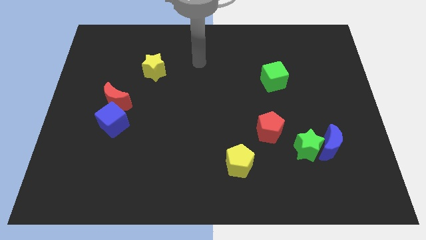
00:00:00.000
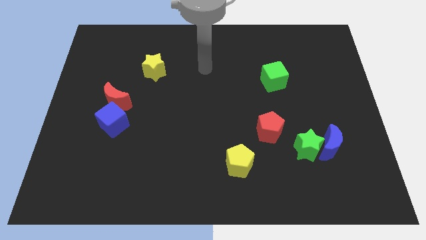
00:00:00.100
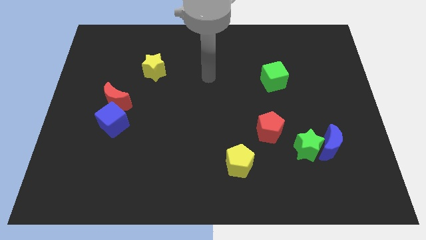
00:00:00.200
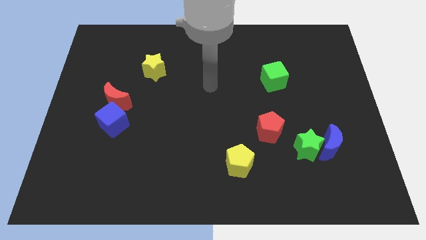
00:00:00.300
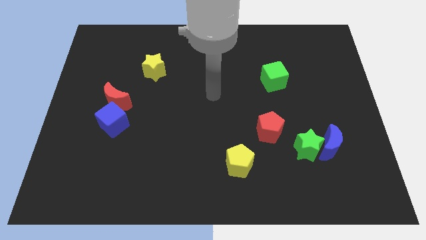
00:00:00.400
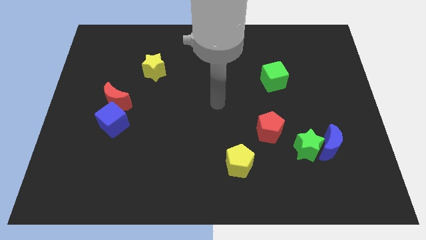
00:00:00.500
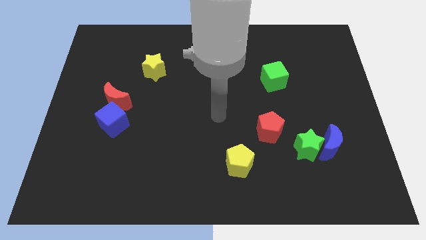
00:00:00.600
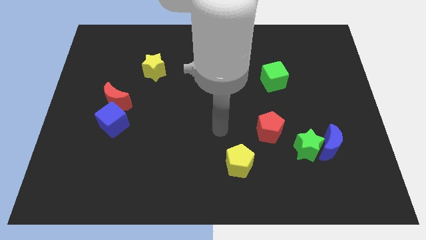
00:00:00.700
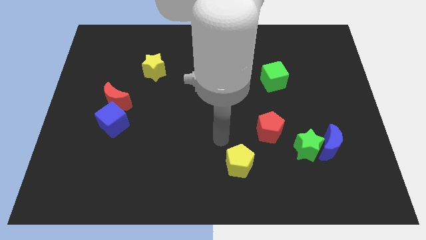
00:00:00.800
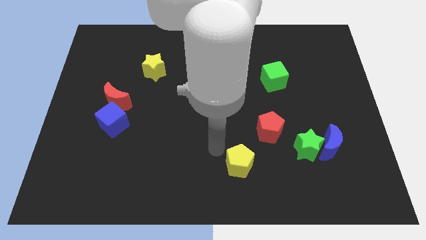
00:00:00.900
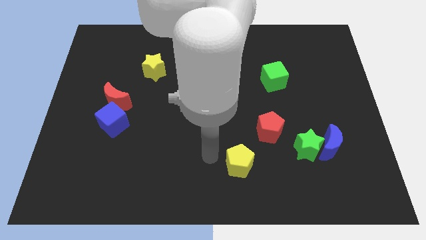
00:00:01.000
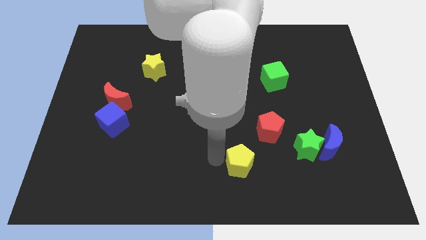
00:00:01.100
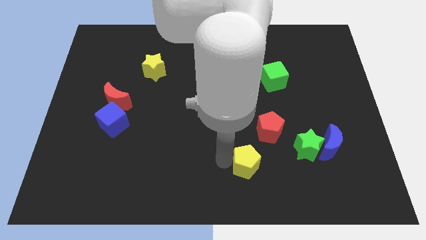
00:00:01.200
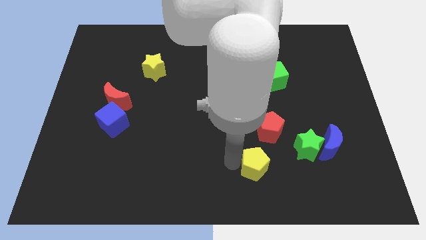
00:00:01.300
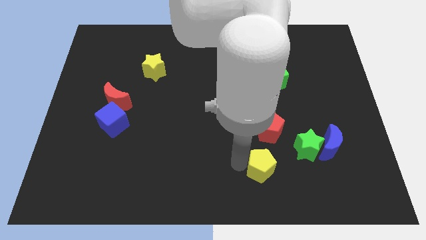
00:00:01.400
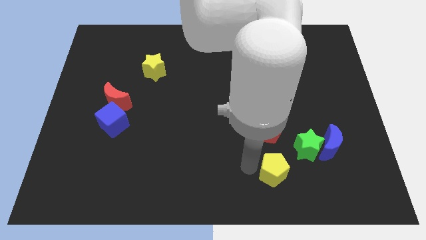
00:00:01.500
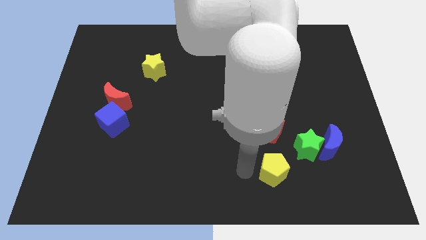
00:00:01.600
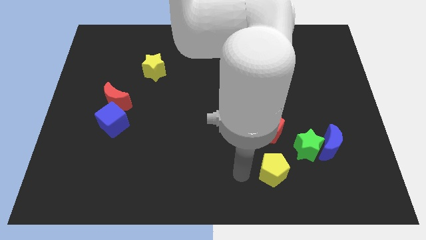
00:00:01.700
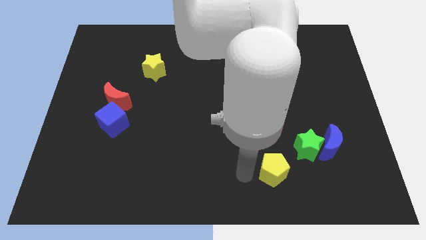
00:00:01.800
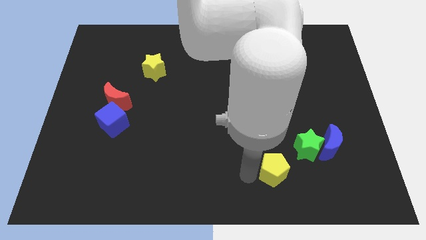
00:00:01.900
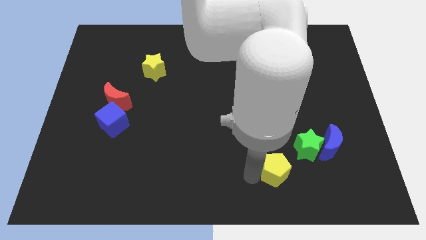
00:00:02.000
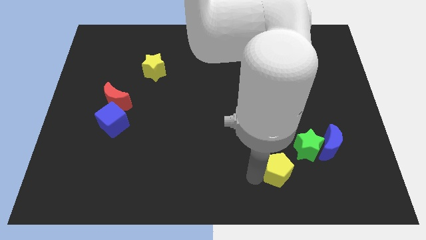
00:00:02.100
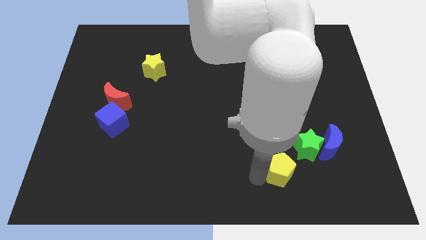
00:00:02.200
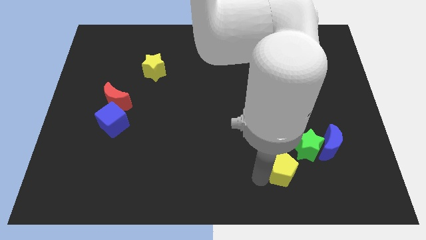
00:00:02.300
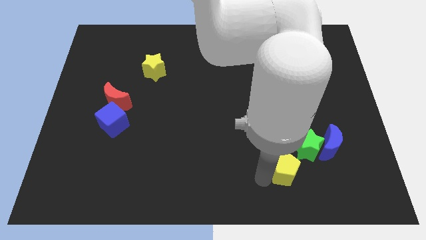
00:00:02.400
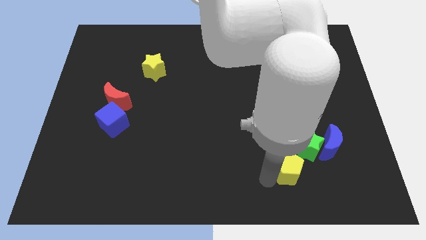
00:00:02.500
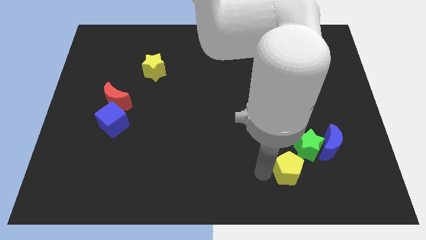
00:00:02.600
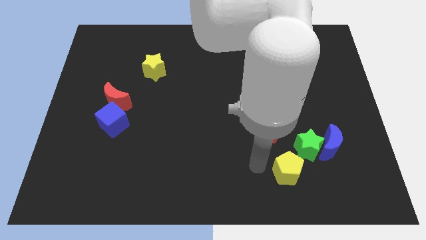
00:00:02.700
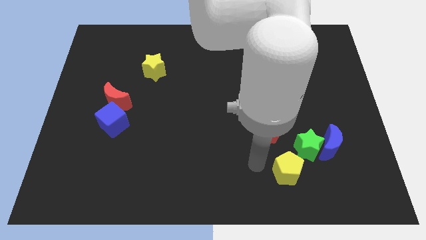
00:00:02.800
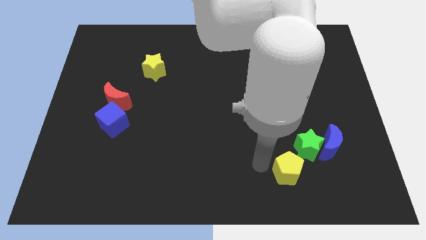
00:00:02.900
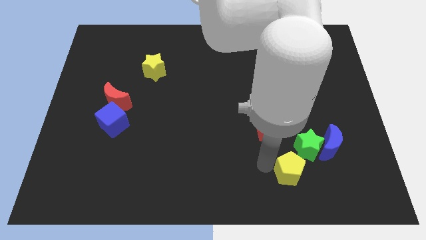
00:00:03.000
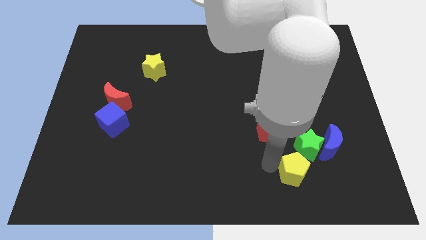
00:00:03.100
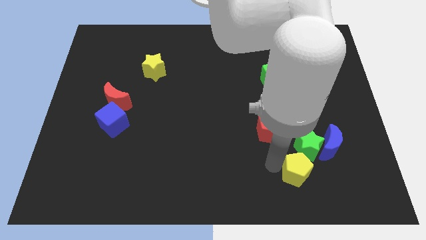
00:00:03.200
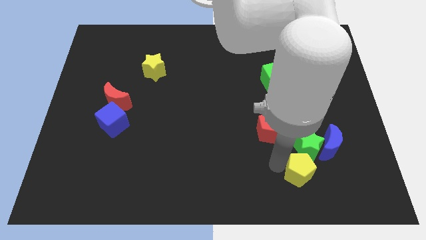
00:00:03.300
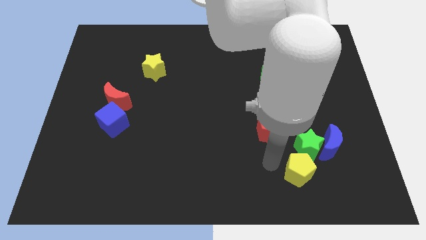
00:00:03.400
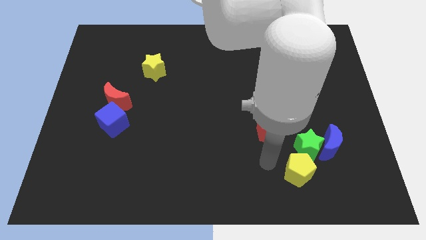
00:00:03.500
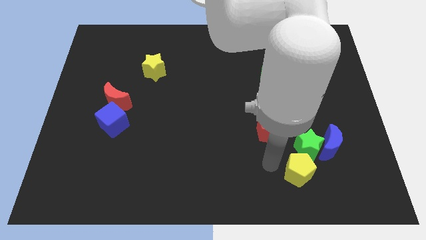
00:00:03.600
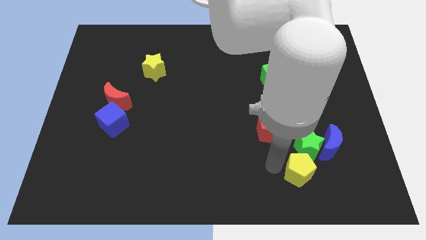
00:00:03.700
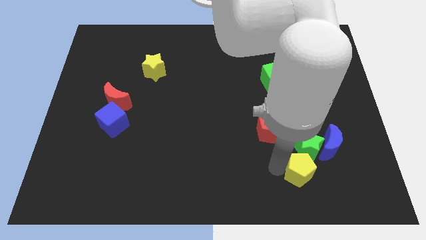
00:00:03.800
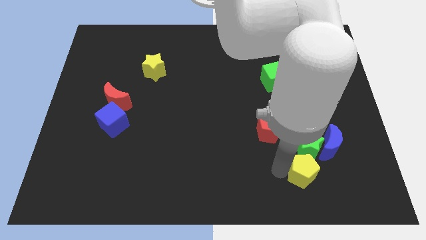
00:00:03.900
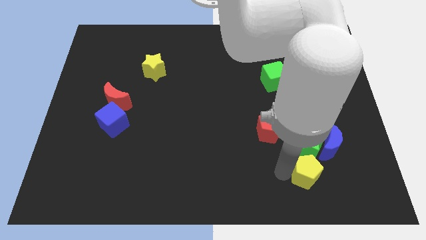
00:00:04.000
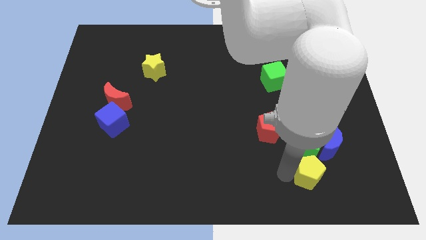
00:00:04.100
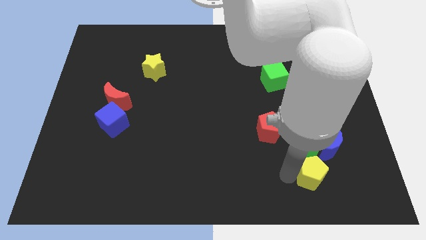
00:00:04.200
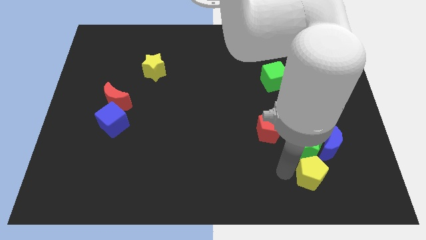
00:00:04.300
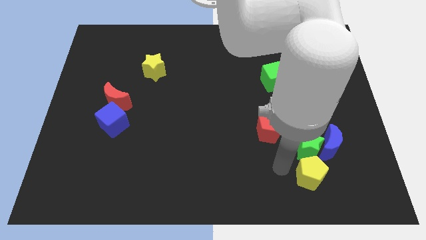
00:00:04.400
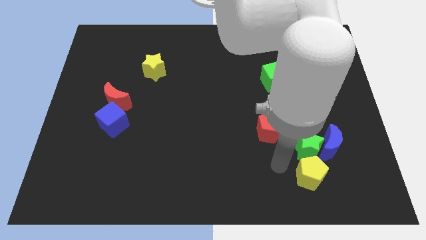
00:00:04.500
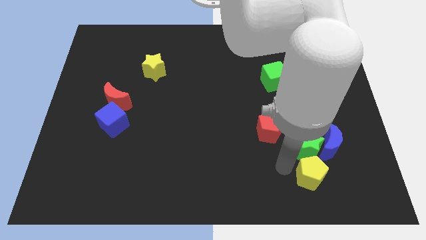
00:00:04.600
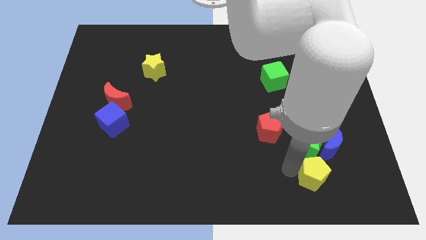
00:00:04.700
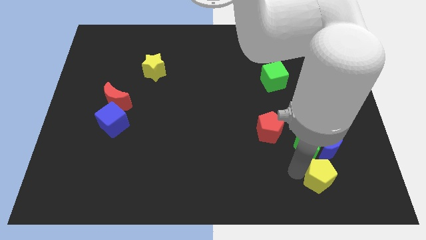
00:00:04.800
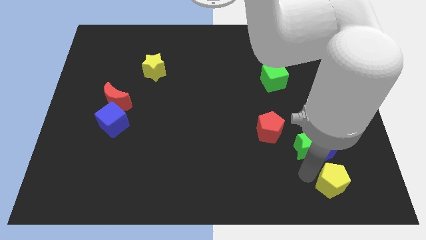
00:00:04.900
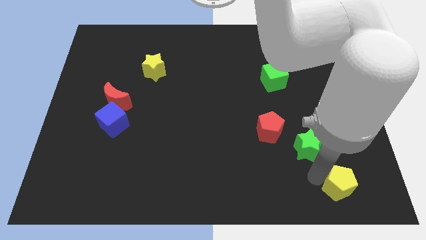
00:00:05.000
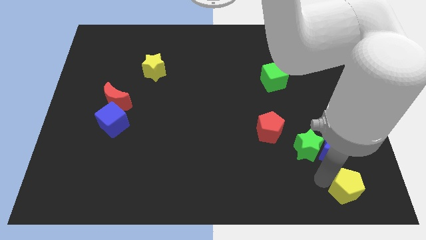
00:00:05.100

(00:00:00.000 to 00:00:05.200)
put the yellow pentagon to the lower right corner
